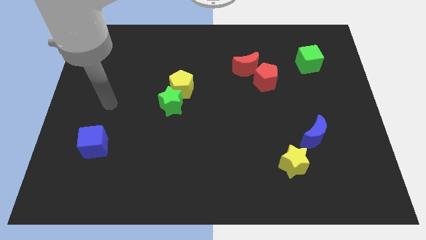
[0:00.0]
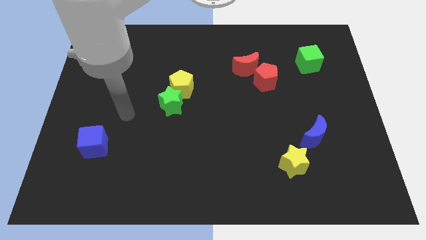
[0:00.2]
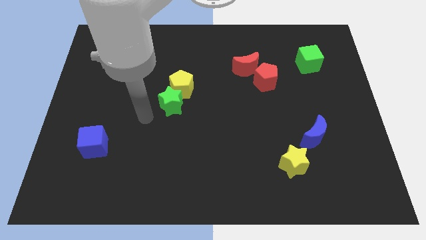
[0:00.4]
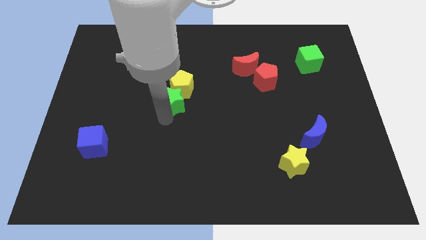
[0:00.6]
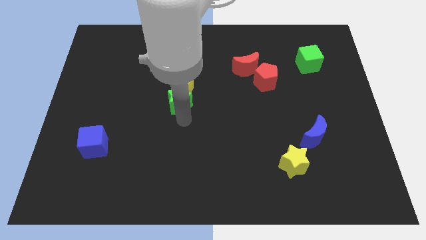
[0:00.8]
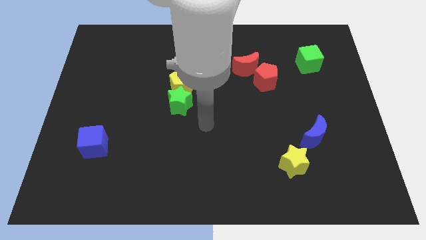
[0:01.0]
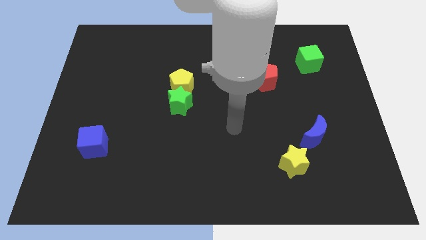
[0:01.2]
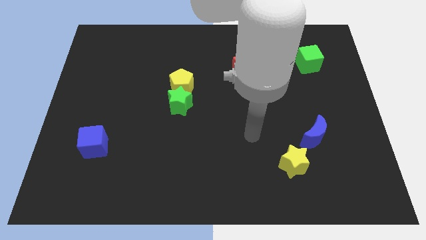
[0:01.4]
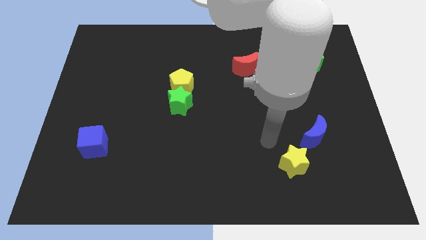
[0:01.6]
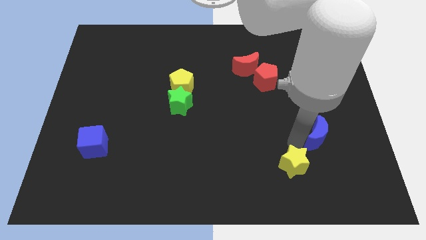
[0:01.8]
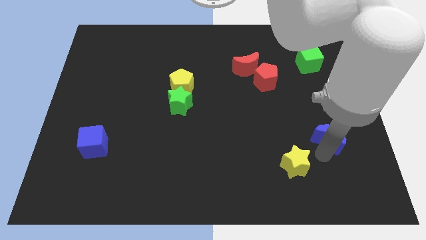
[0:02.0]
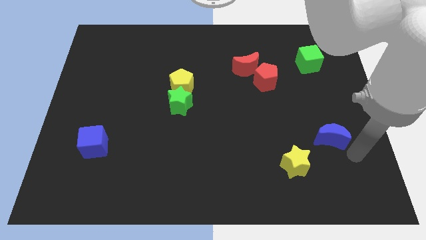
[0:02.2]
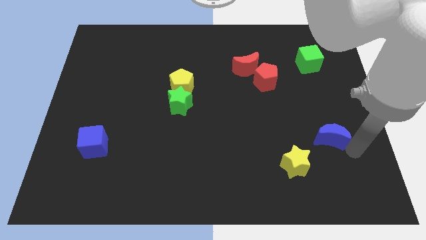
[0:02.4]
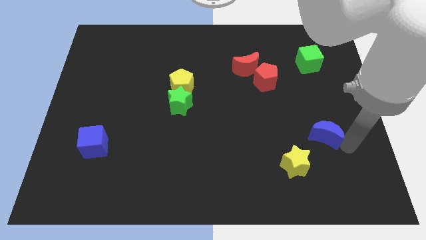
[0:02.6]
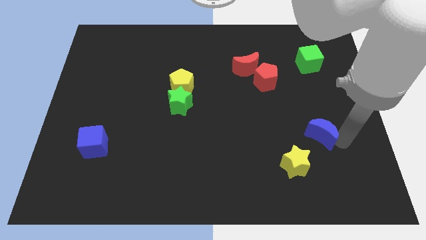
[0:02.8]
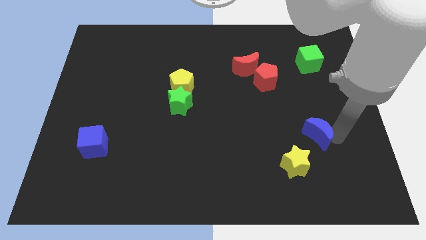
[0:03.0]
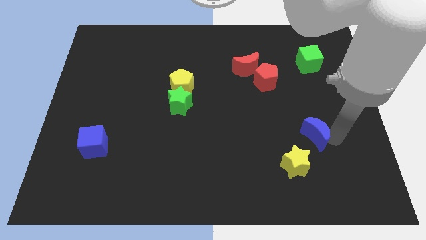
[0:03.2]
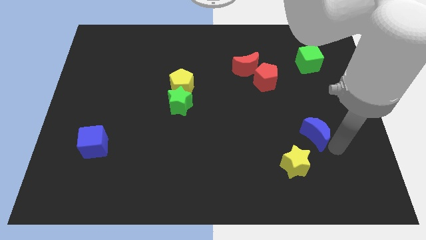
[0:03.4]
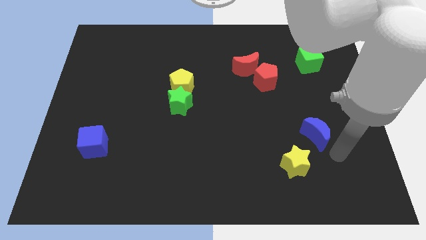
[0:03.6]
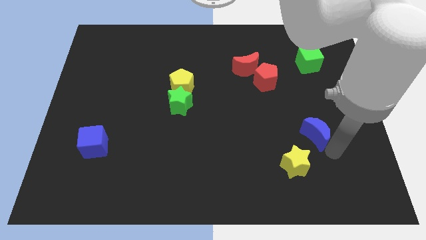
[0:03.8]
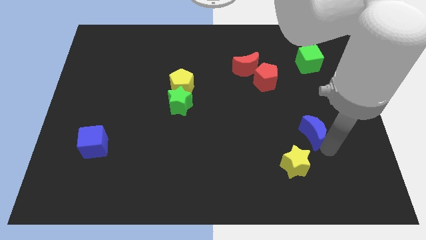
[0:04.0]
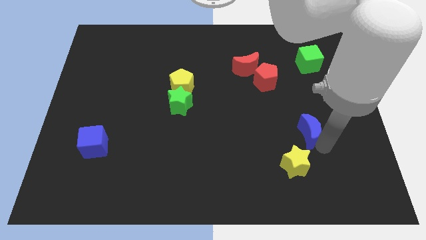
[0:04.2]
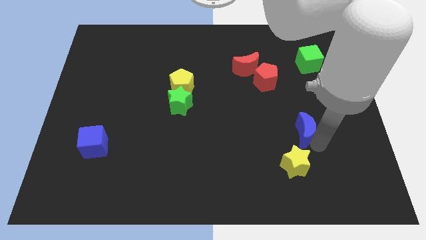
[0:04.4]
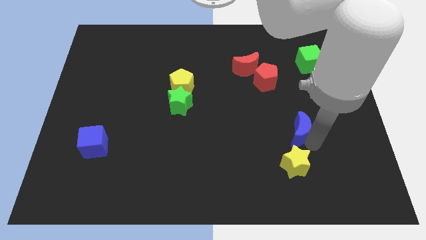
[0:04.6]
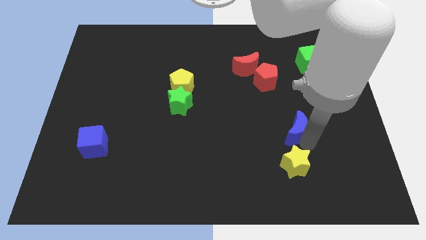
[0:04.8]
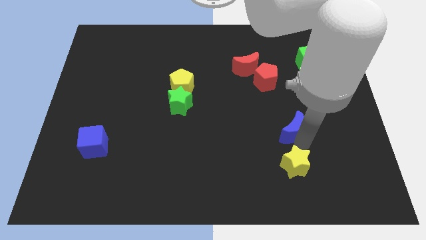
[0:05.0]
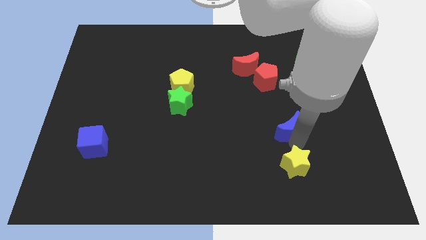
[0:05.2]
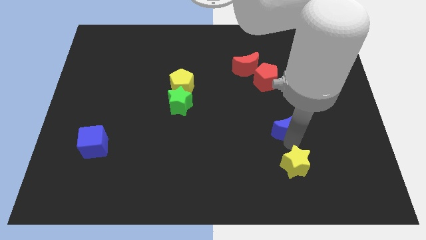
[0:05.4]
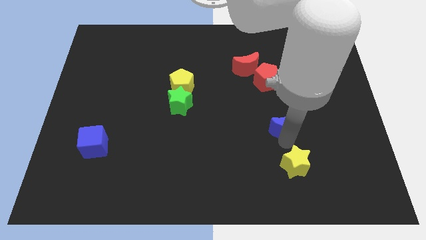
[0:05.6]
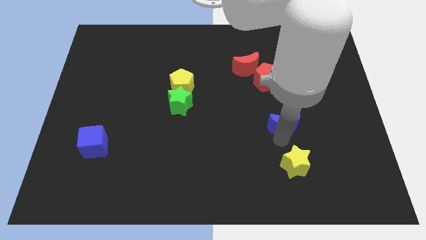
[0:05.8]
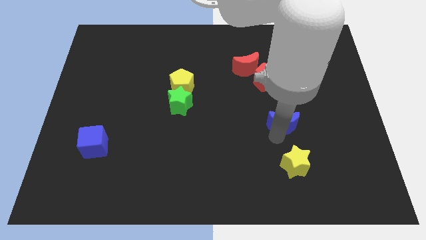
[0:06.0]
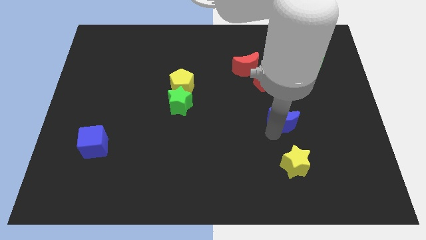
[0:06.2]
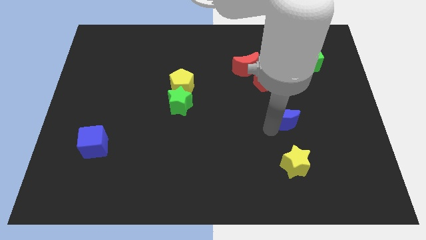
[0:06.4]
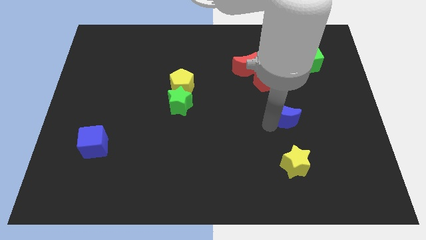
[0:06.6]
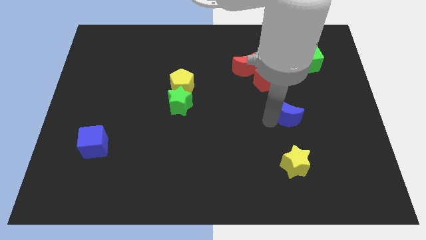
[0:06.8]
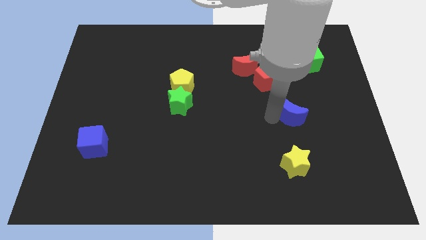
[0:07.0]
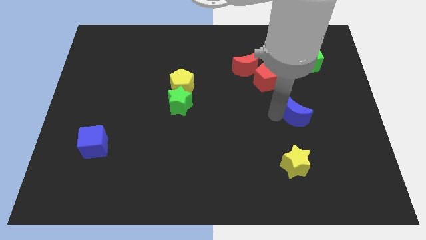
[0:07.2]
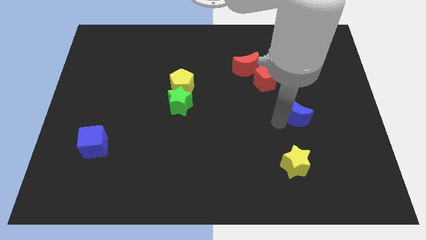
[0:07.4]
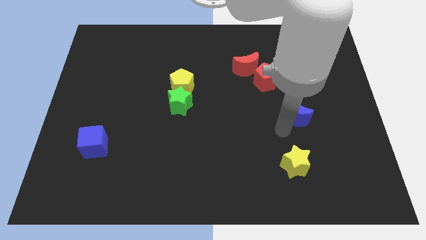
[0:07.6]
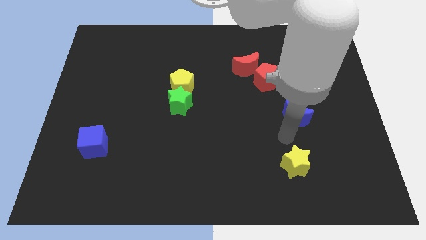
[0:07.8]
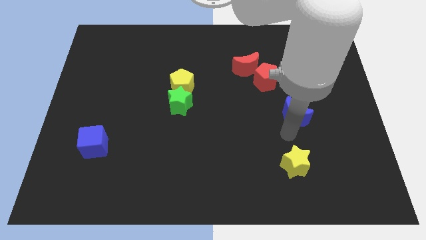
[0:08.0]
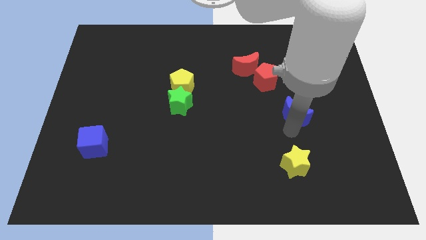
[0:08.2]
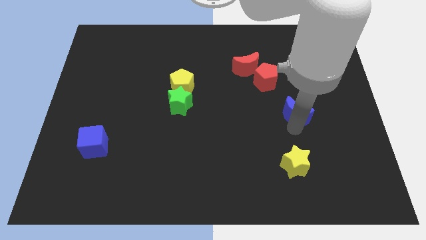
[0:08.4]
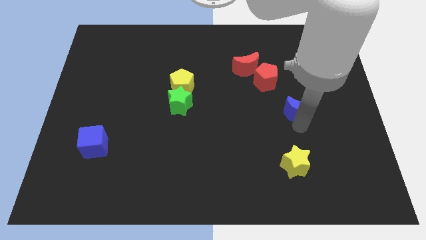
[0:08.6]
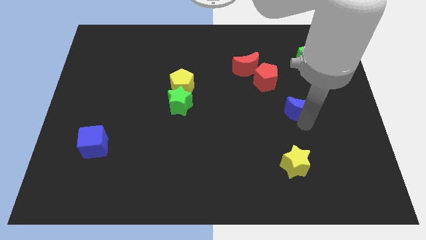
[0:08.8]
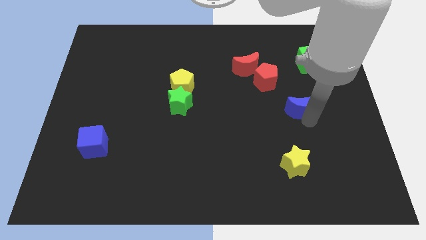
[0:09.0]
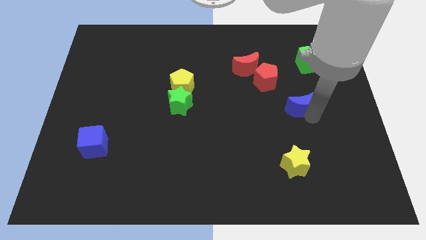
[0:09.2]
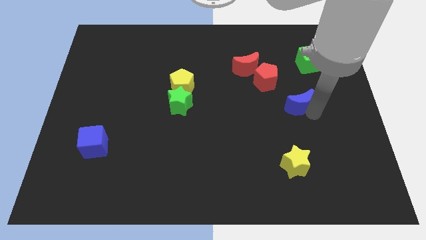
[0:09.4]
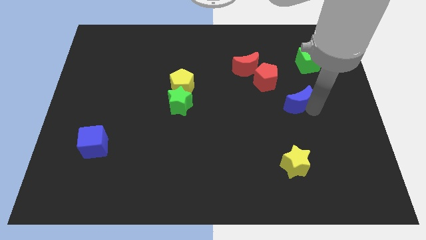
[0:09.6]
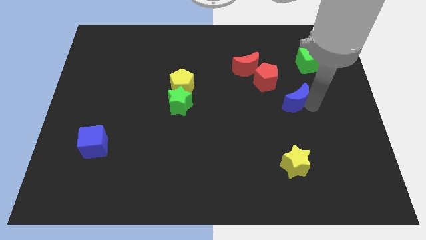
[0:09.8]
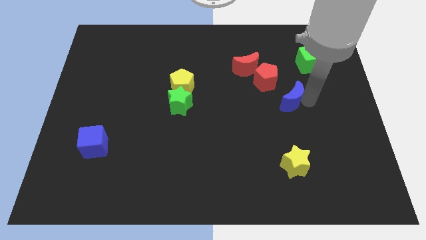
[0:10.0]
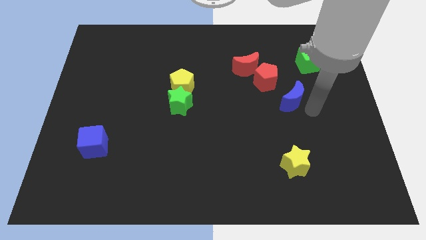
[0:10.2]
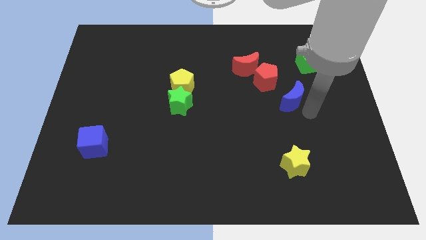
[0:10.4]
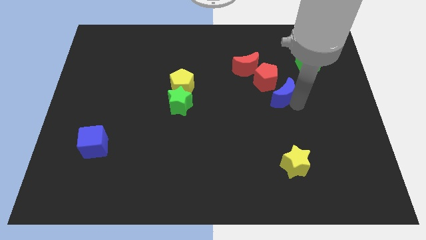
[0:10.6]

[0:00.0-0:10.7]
slide the blue moon to the bottom right of the red moon

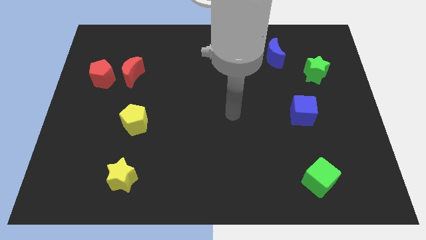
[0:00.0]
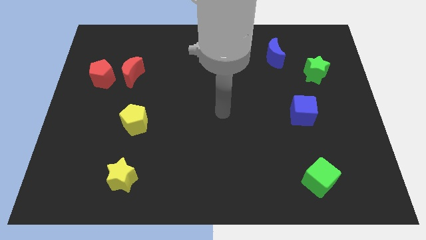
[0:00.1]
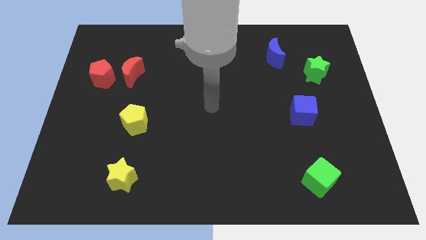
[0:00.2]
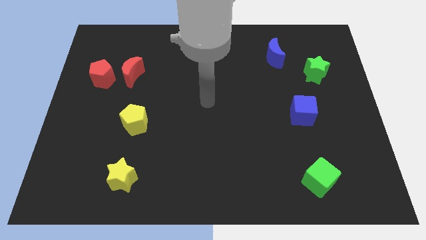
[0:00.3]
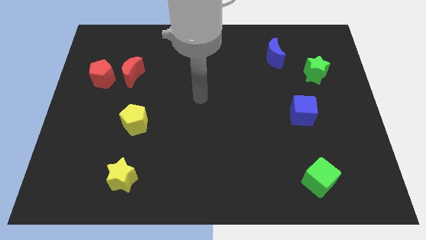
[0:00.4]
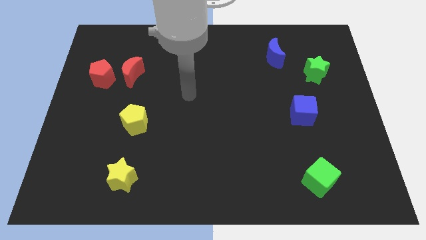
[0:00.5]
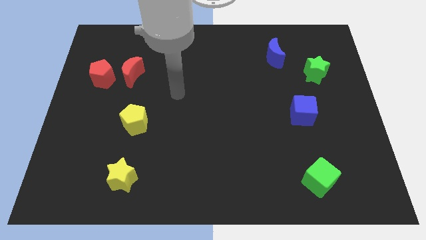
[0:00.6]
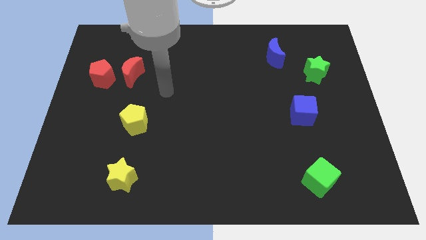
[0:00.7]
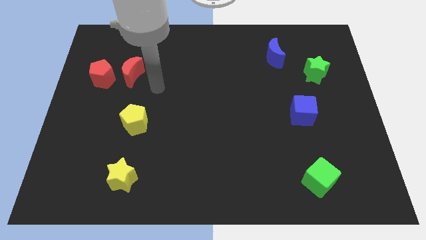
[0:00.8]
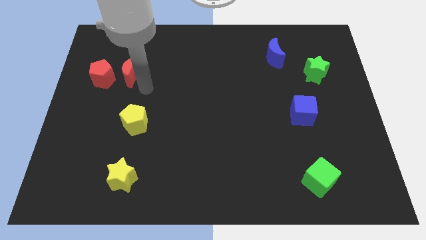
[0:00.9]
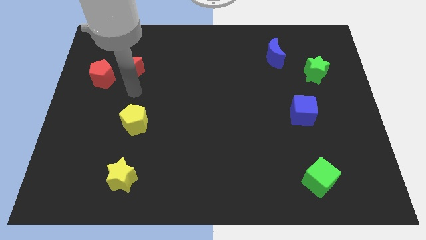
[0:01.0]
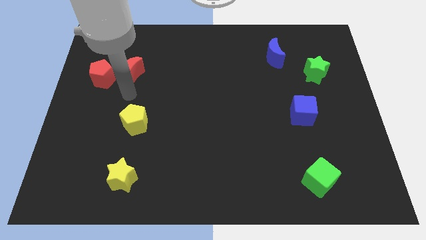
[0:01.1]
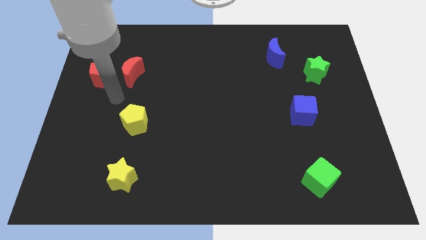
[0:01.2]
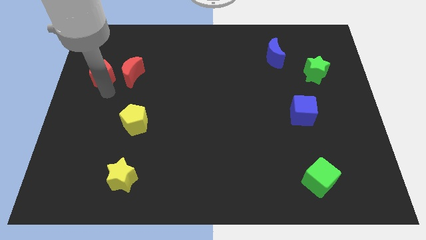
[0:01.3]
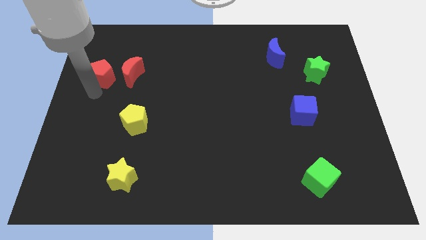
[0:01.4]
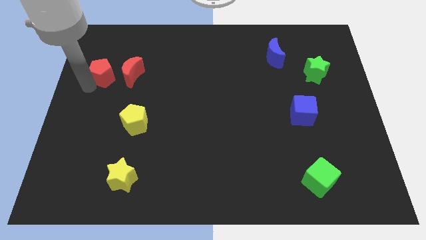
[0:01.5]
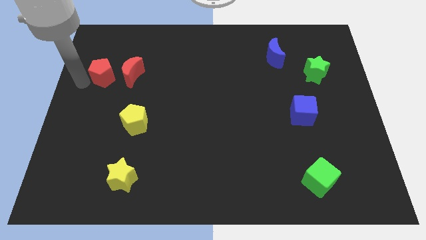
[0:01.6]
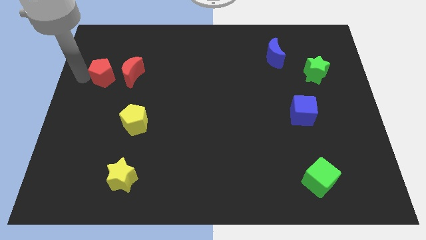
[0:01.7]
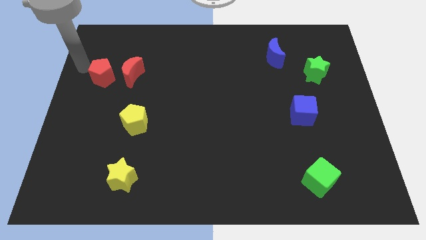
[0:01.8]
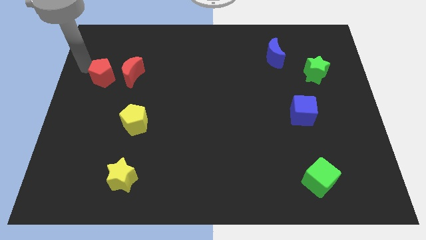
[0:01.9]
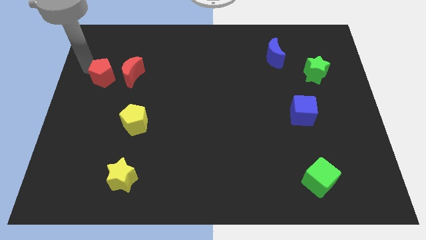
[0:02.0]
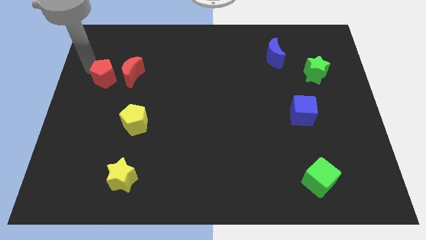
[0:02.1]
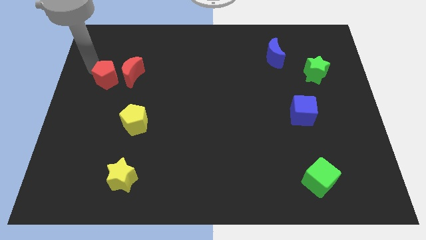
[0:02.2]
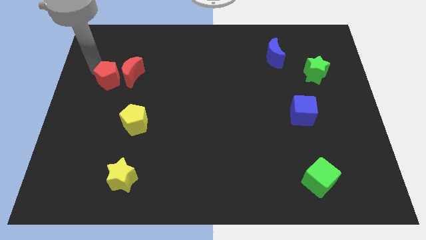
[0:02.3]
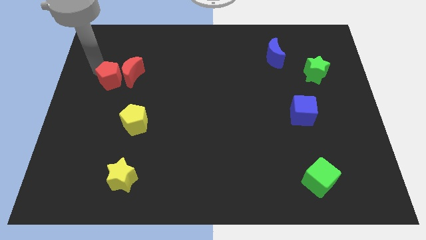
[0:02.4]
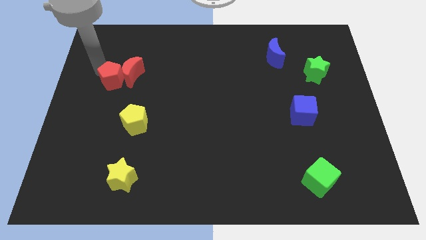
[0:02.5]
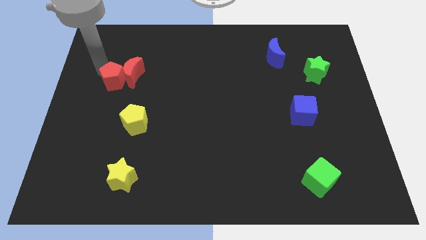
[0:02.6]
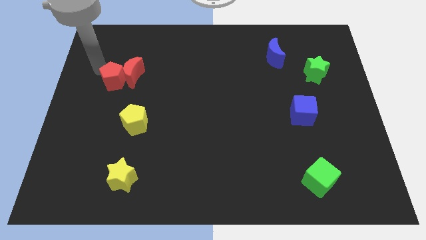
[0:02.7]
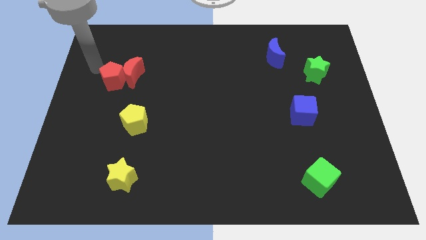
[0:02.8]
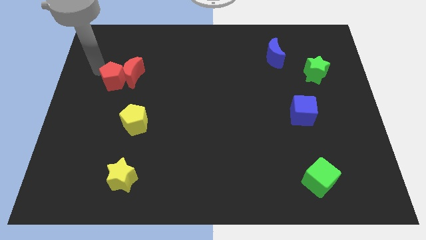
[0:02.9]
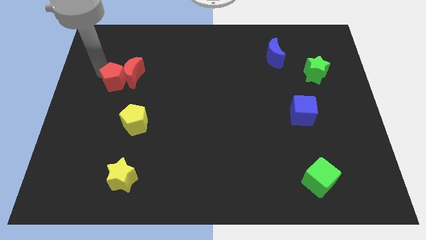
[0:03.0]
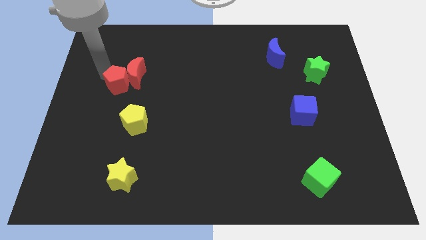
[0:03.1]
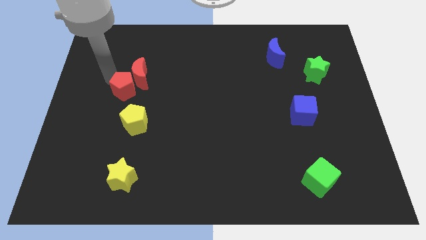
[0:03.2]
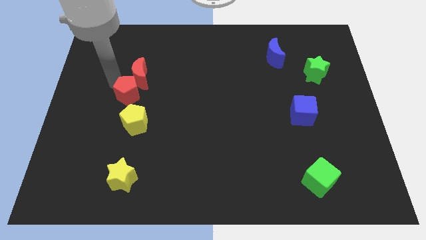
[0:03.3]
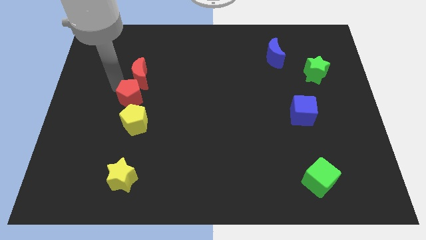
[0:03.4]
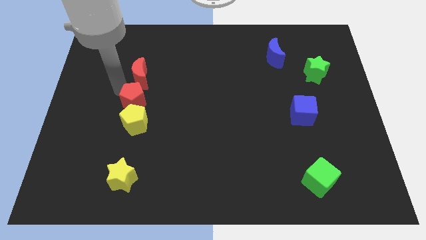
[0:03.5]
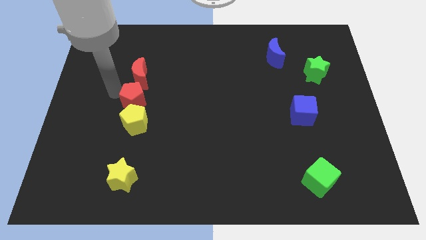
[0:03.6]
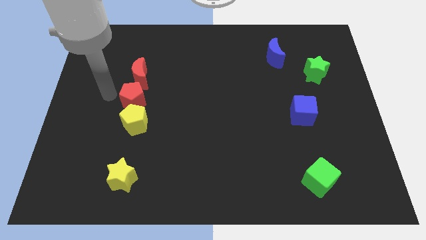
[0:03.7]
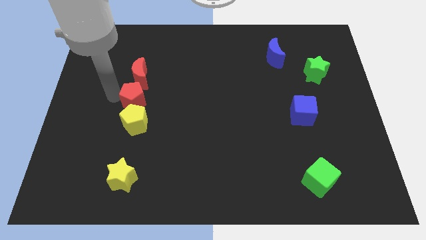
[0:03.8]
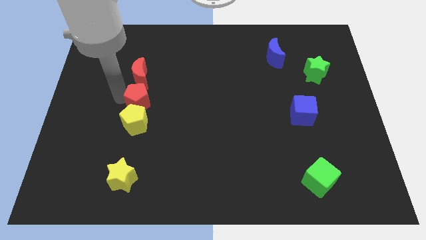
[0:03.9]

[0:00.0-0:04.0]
push the red pentagon to the top right side of the yellow pentagon
